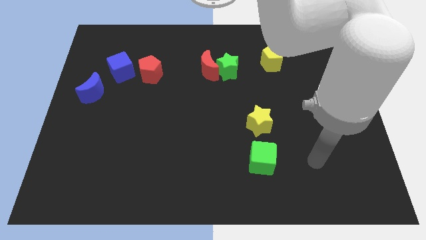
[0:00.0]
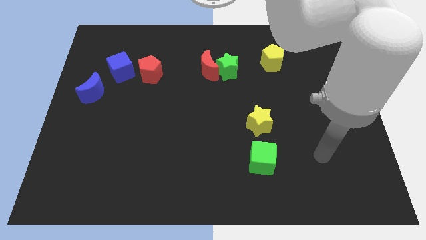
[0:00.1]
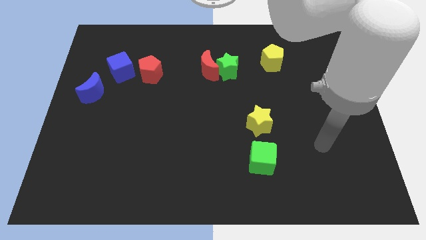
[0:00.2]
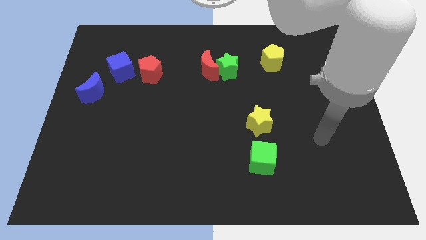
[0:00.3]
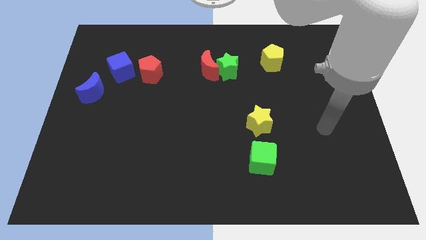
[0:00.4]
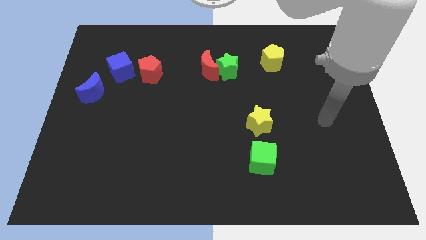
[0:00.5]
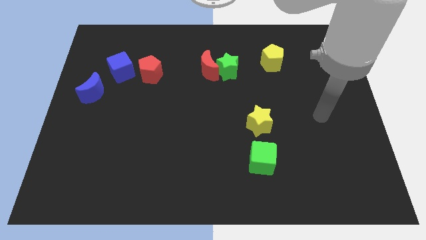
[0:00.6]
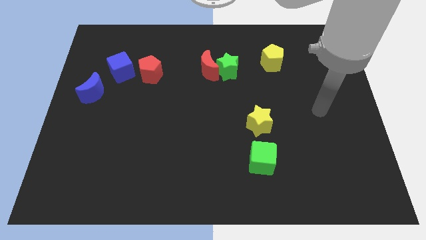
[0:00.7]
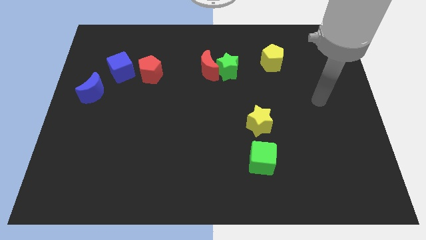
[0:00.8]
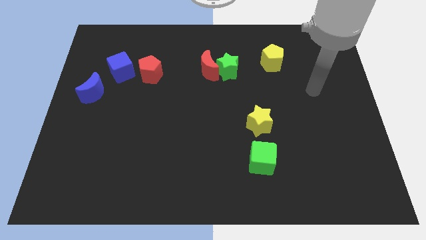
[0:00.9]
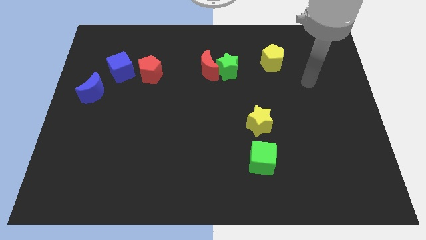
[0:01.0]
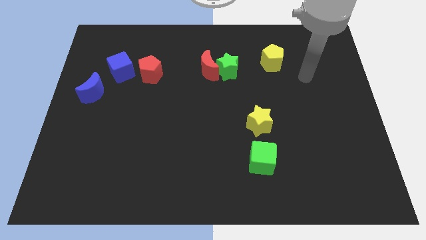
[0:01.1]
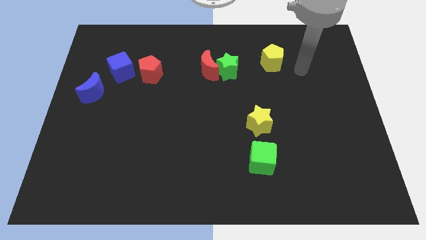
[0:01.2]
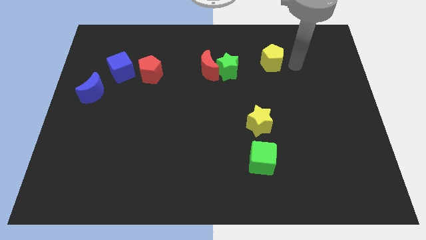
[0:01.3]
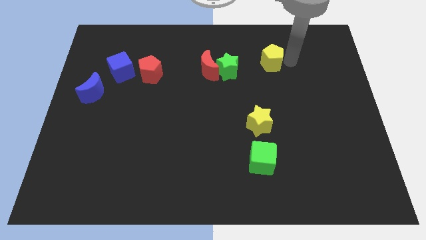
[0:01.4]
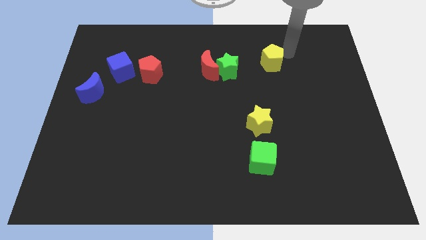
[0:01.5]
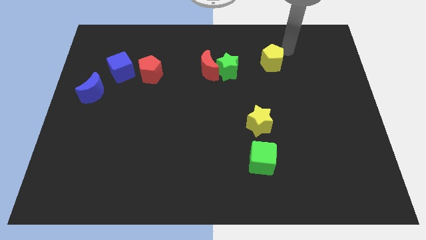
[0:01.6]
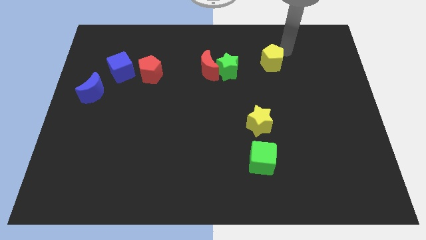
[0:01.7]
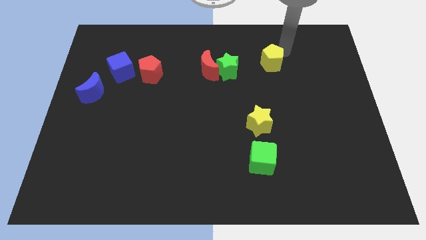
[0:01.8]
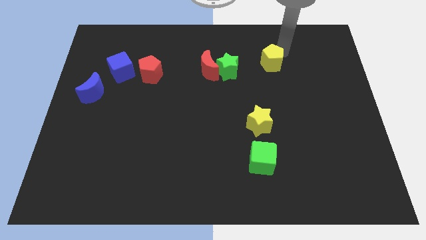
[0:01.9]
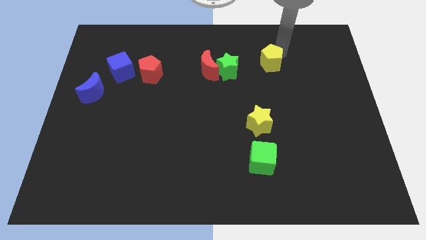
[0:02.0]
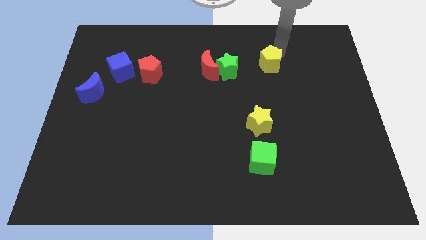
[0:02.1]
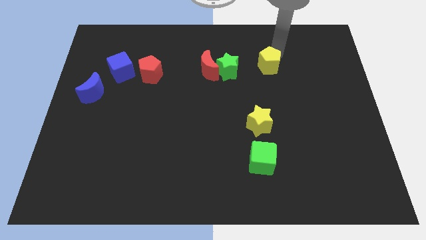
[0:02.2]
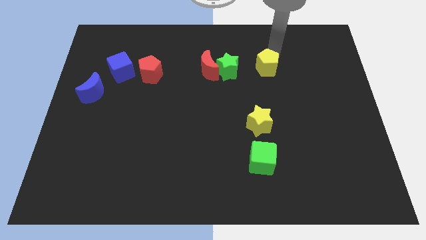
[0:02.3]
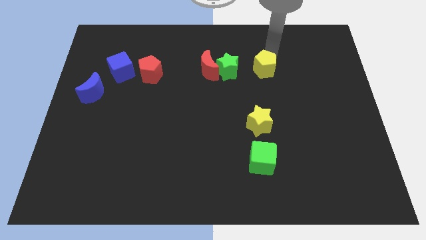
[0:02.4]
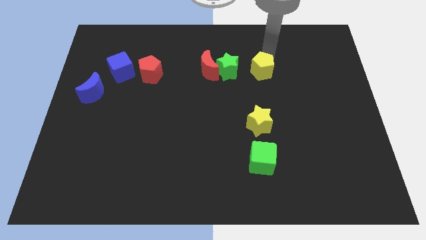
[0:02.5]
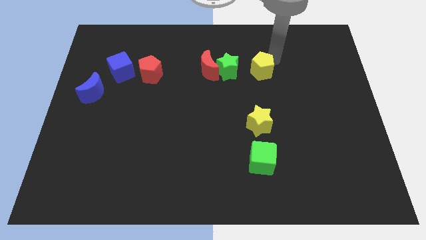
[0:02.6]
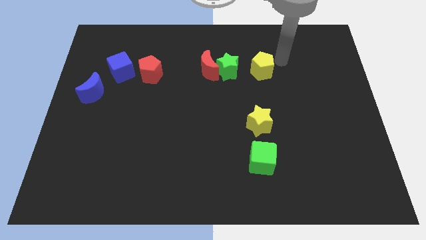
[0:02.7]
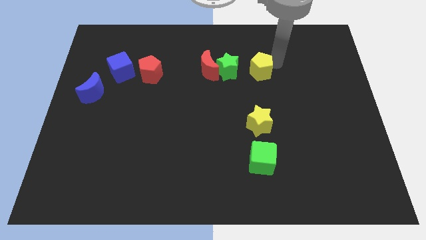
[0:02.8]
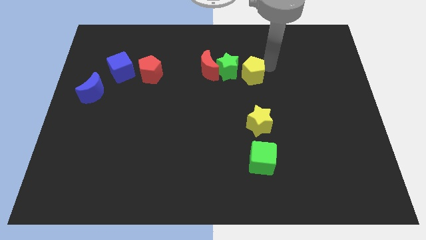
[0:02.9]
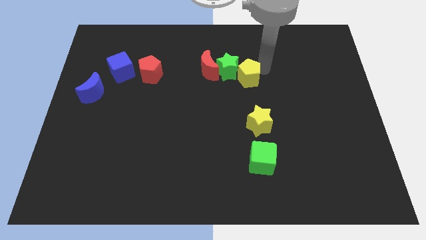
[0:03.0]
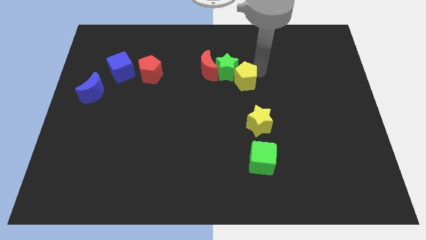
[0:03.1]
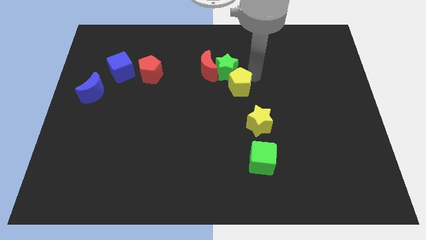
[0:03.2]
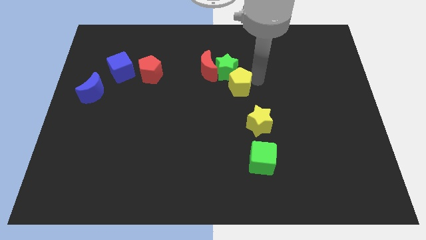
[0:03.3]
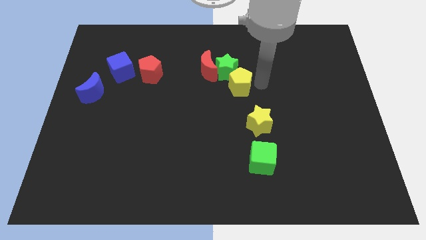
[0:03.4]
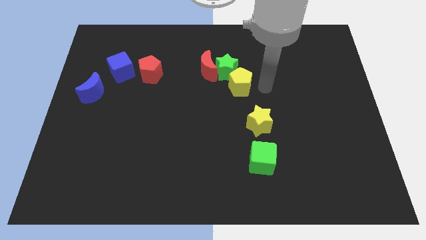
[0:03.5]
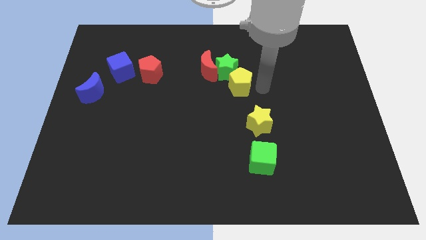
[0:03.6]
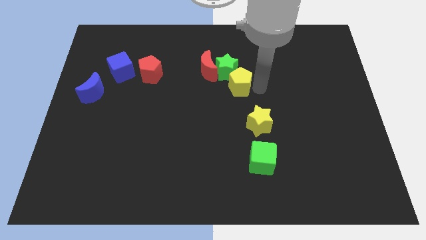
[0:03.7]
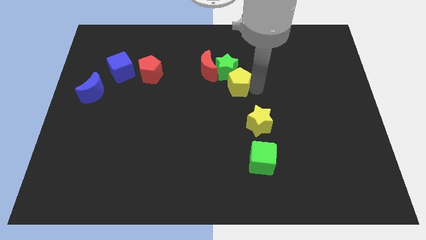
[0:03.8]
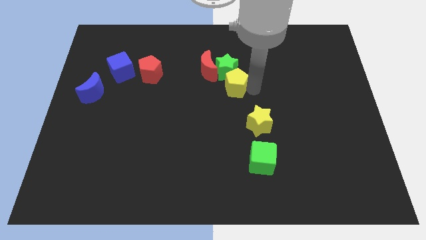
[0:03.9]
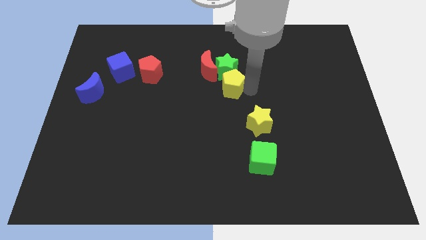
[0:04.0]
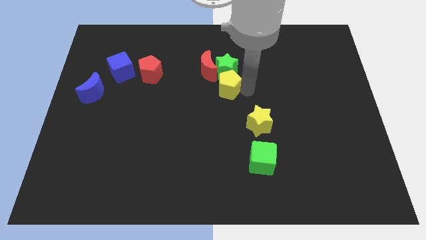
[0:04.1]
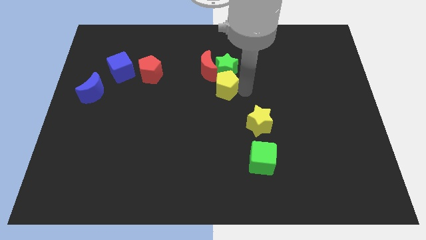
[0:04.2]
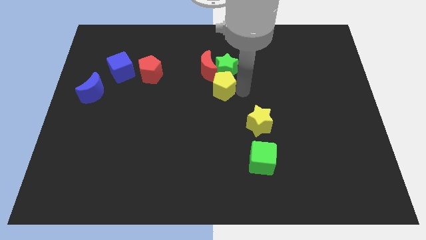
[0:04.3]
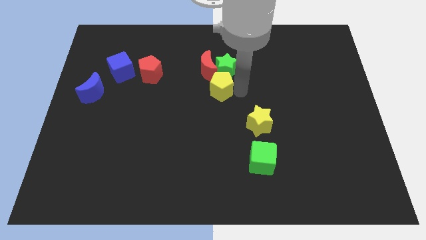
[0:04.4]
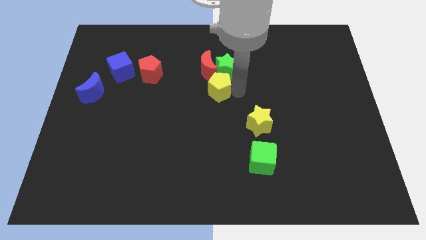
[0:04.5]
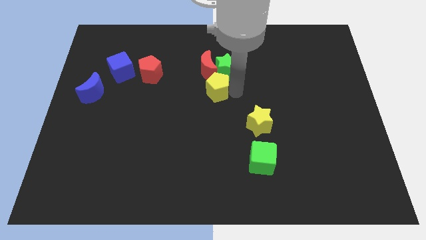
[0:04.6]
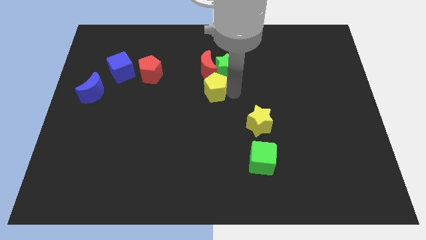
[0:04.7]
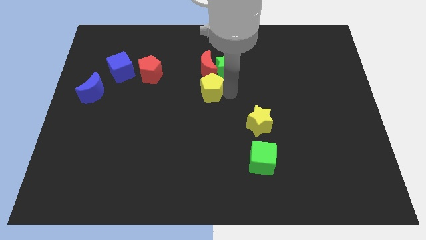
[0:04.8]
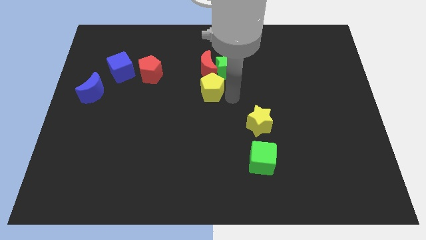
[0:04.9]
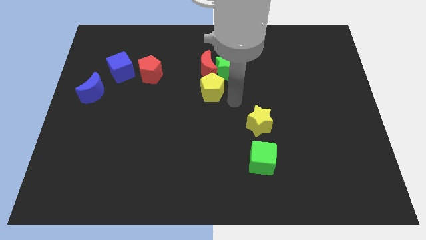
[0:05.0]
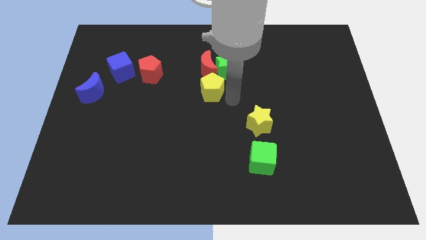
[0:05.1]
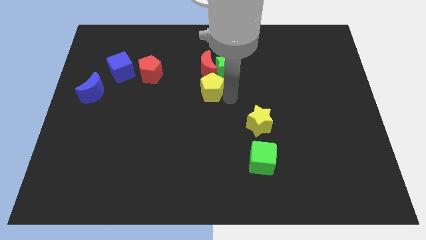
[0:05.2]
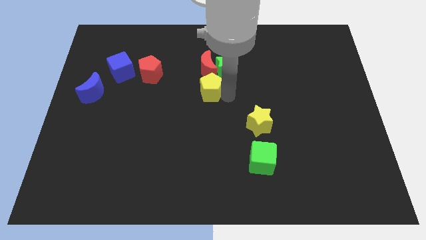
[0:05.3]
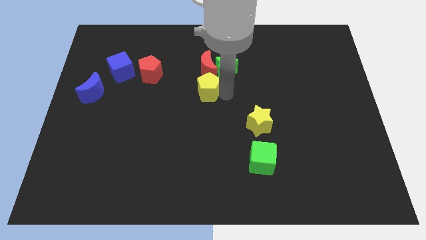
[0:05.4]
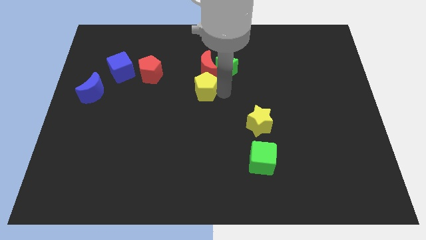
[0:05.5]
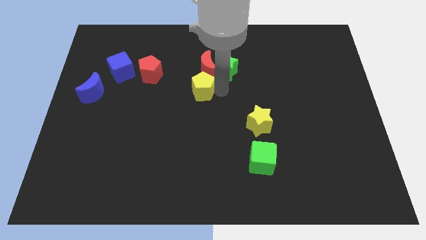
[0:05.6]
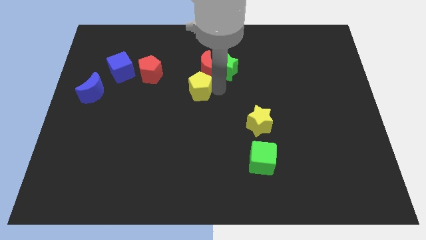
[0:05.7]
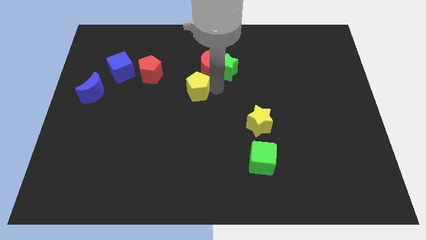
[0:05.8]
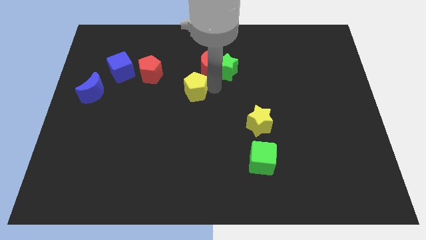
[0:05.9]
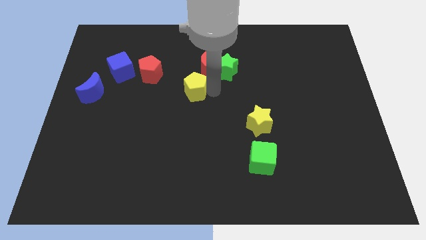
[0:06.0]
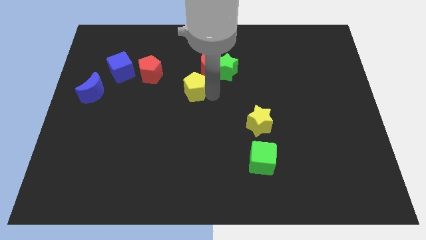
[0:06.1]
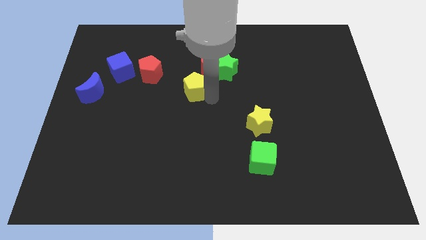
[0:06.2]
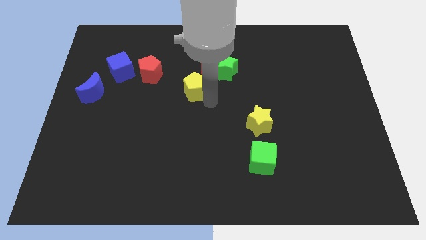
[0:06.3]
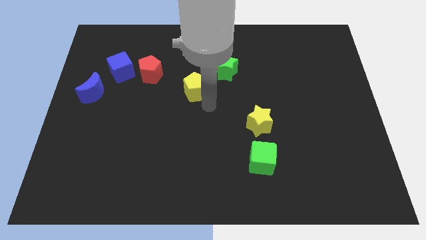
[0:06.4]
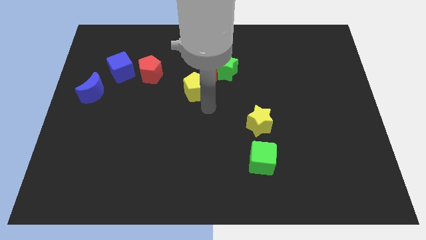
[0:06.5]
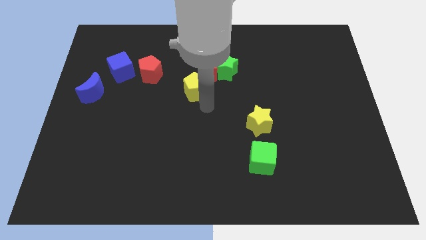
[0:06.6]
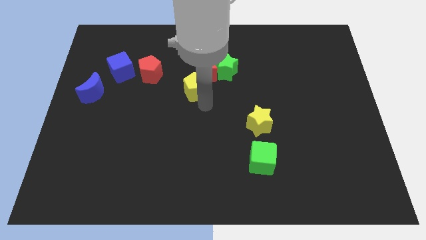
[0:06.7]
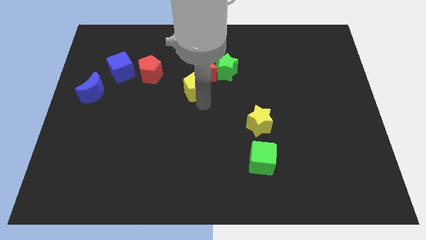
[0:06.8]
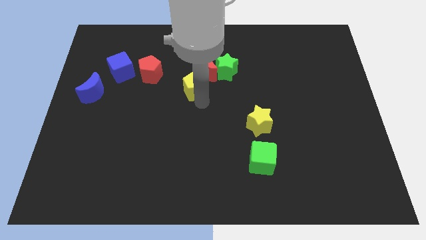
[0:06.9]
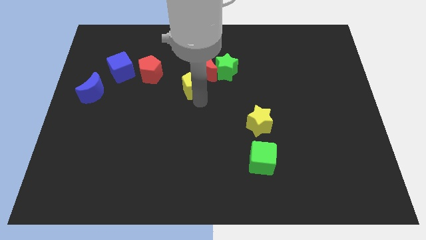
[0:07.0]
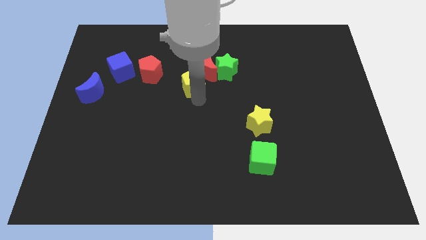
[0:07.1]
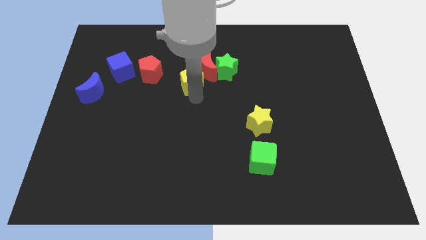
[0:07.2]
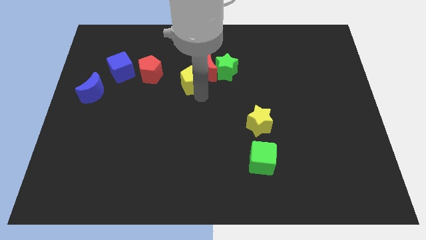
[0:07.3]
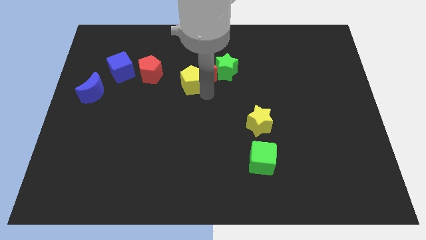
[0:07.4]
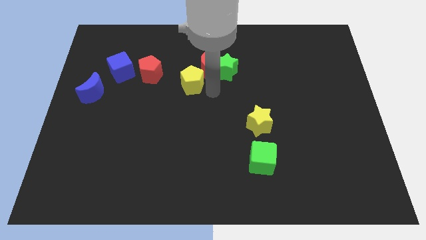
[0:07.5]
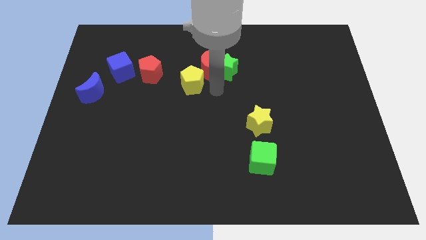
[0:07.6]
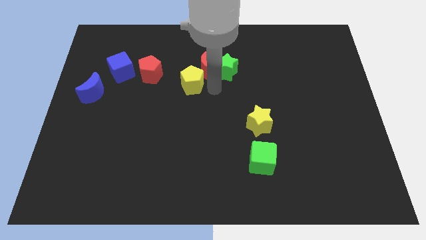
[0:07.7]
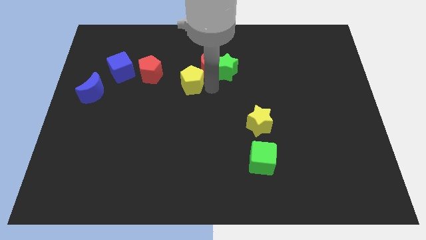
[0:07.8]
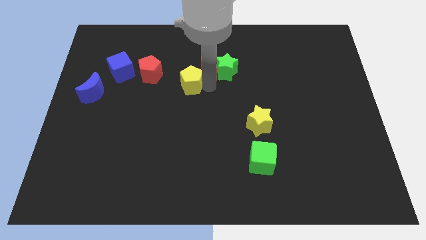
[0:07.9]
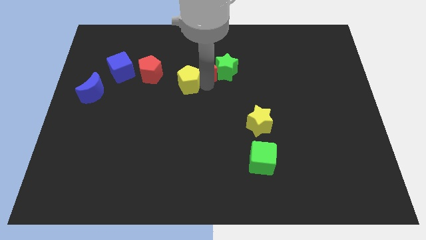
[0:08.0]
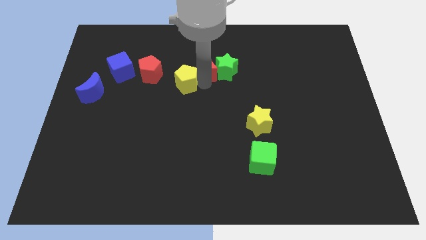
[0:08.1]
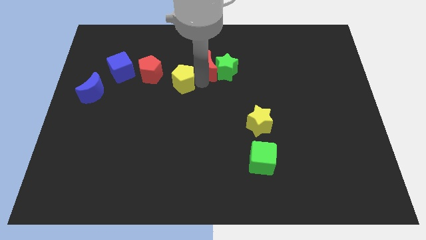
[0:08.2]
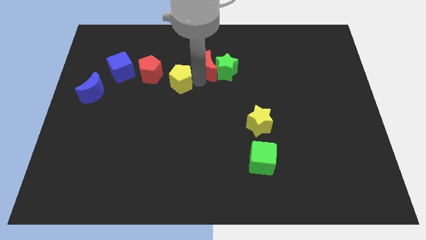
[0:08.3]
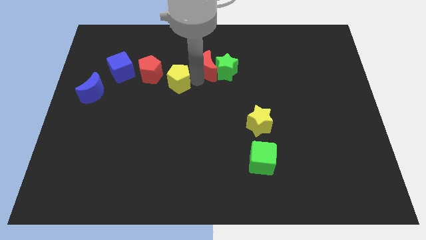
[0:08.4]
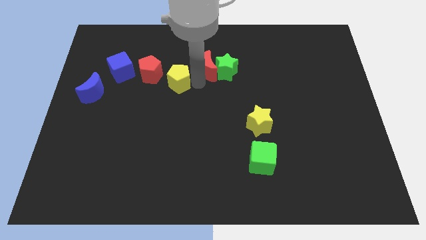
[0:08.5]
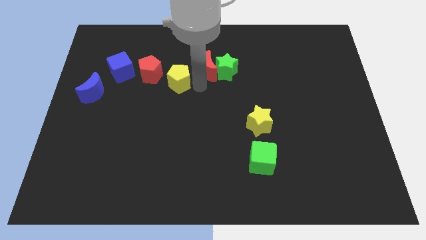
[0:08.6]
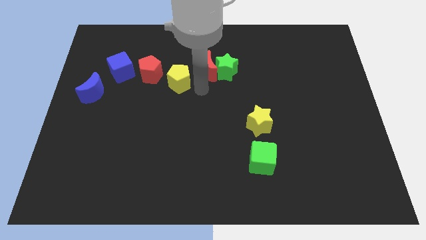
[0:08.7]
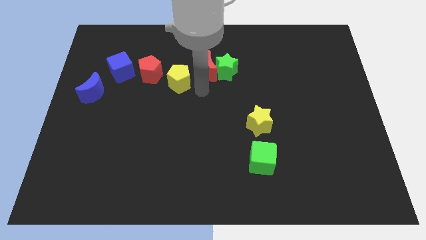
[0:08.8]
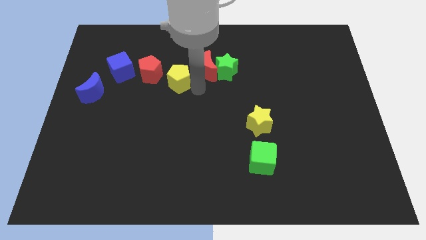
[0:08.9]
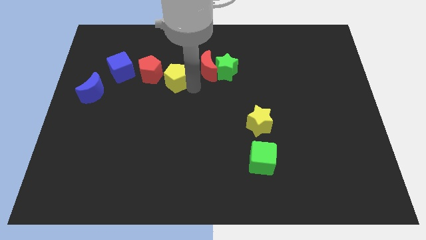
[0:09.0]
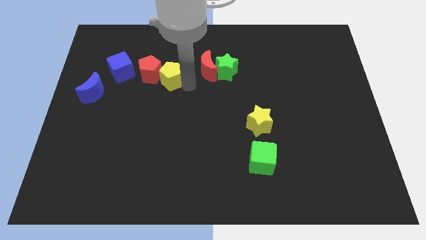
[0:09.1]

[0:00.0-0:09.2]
move the yellow pentagon close to the red pentagon
